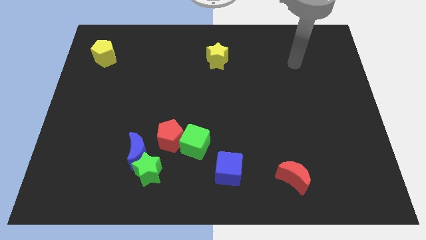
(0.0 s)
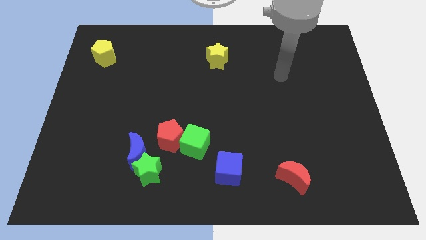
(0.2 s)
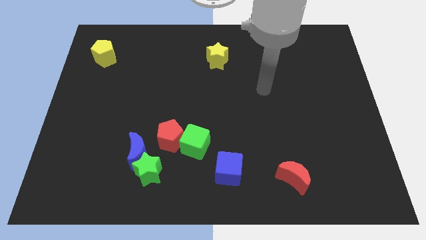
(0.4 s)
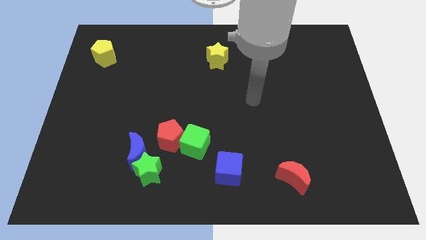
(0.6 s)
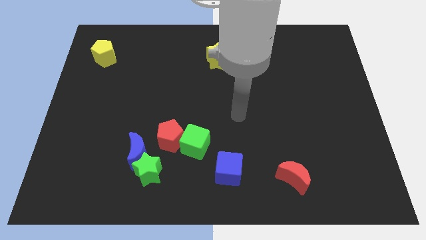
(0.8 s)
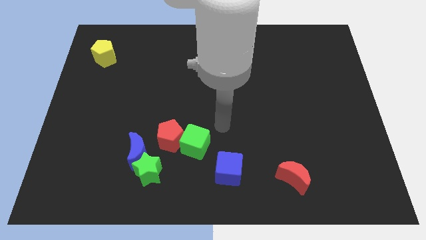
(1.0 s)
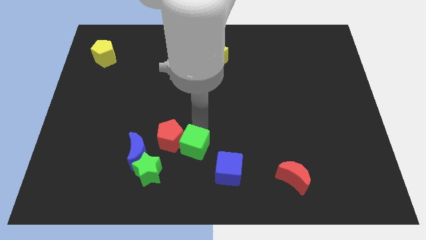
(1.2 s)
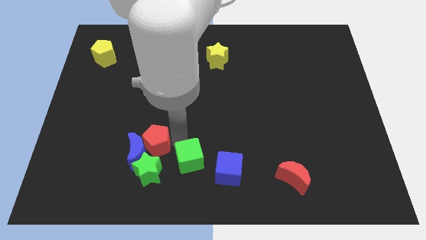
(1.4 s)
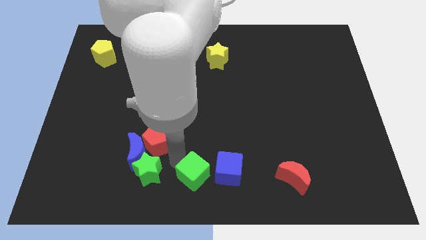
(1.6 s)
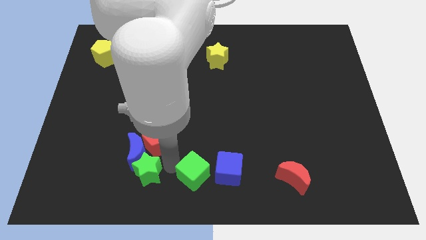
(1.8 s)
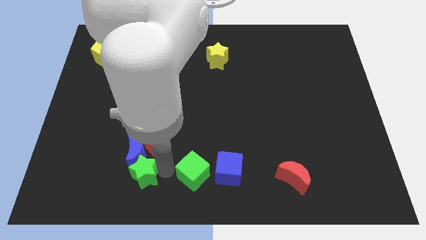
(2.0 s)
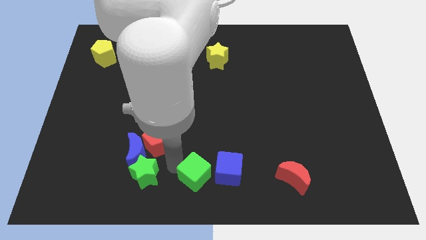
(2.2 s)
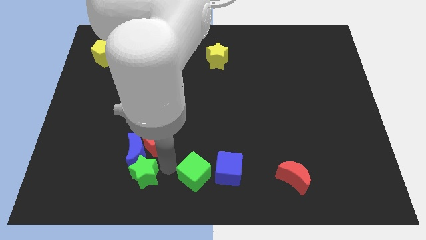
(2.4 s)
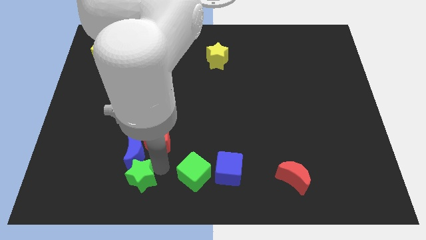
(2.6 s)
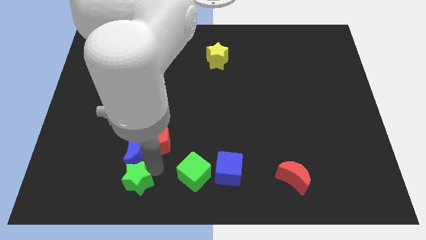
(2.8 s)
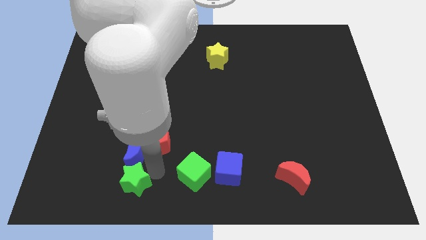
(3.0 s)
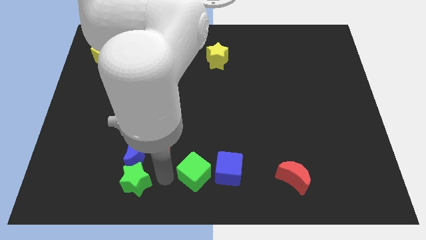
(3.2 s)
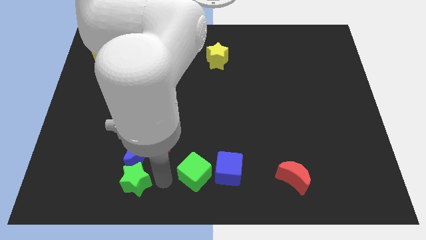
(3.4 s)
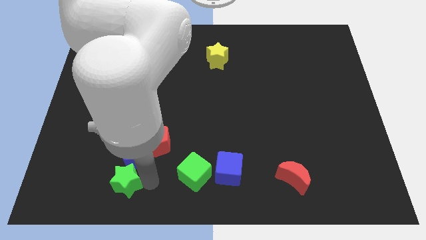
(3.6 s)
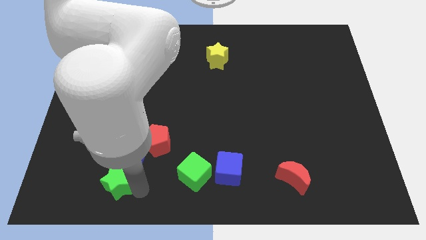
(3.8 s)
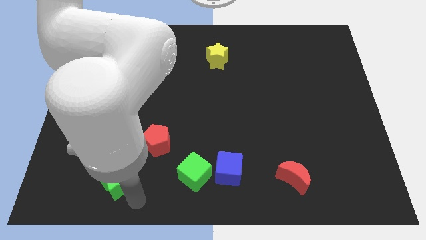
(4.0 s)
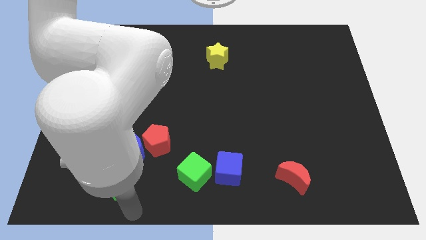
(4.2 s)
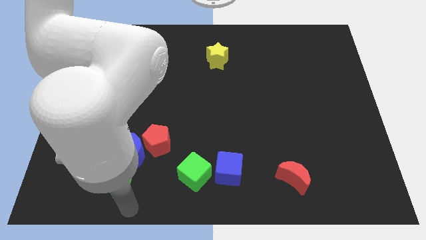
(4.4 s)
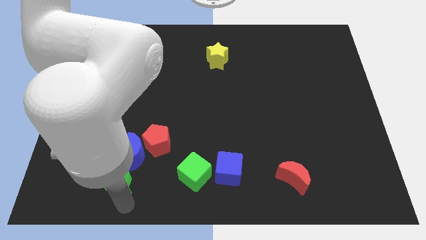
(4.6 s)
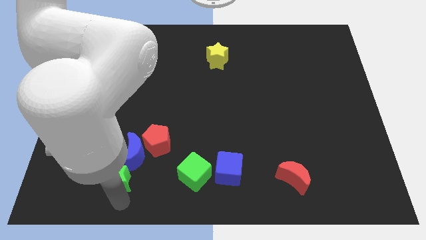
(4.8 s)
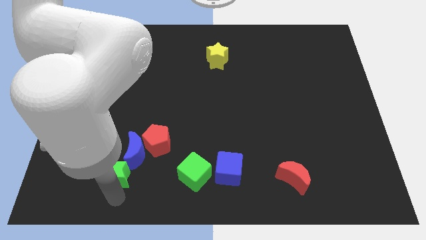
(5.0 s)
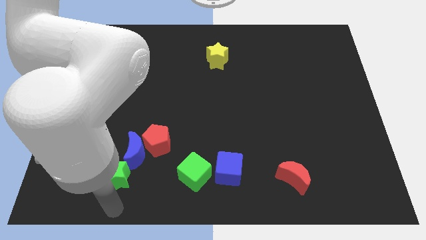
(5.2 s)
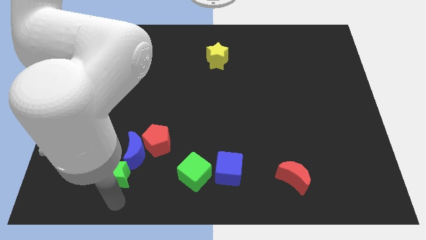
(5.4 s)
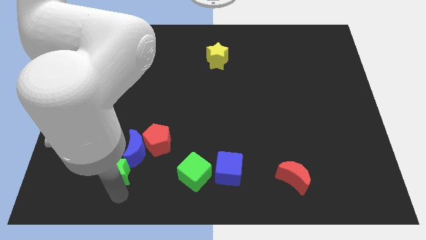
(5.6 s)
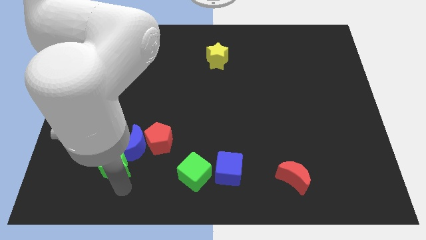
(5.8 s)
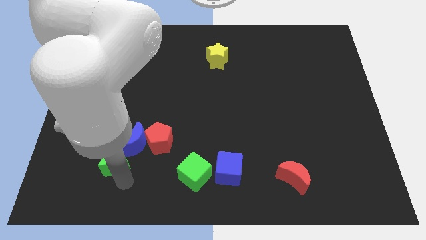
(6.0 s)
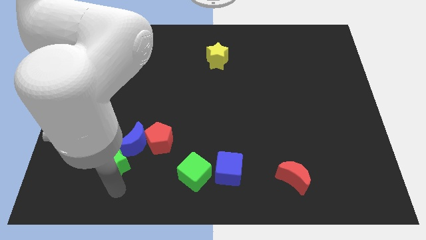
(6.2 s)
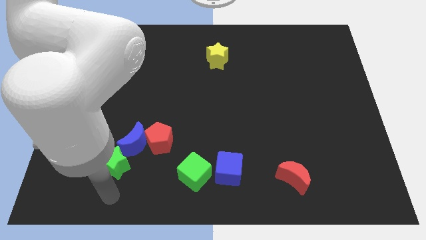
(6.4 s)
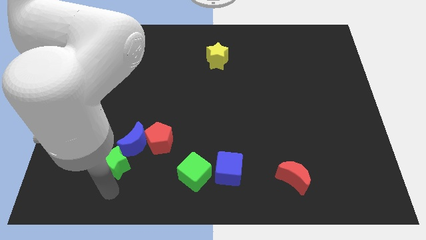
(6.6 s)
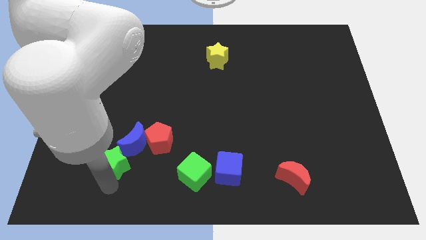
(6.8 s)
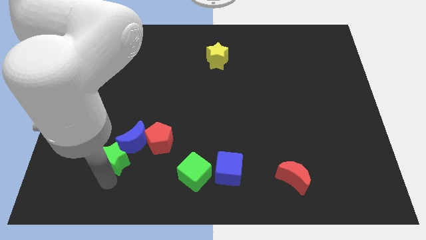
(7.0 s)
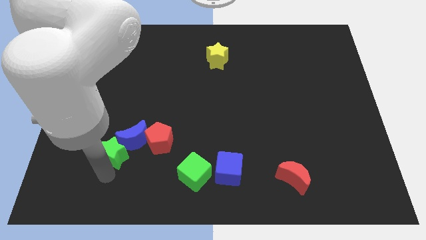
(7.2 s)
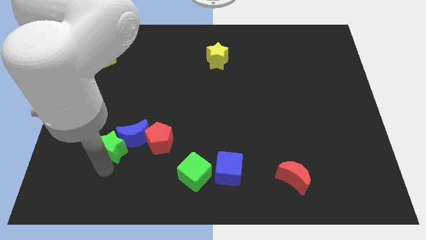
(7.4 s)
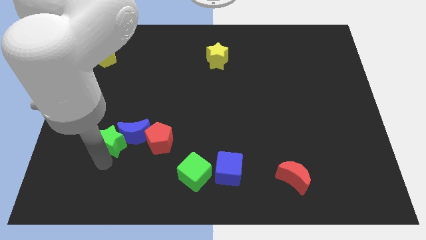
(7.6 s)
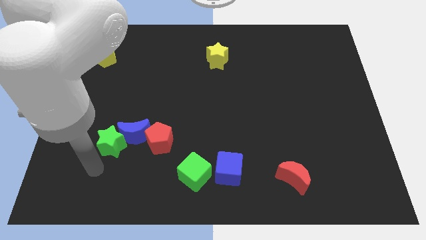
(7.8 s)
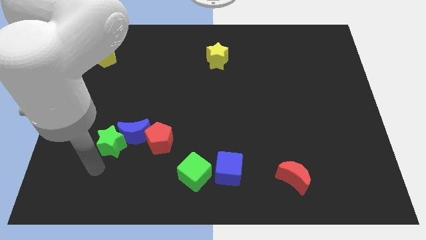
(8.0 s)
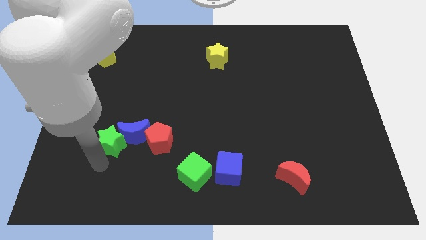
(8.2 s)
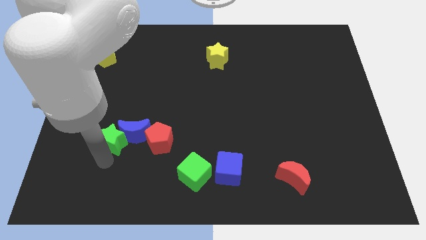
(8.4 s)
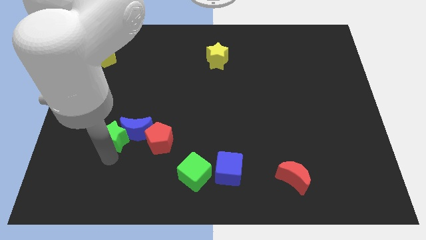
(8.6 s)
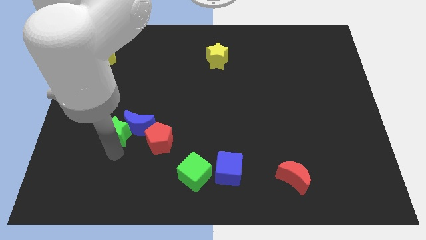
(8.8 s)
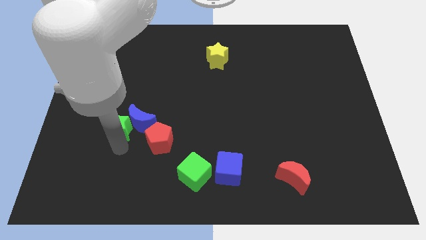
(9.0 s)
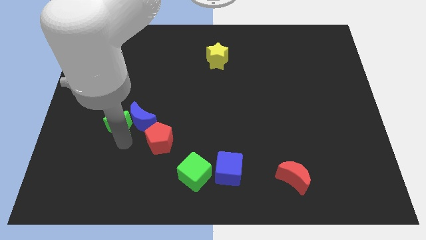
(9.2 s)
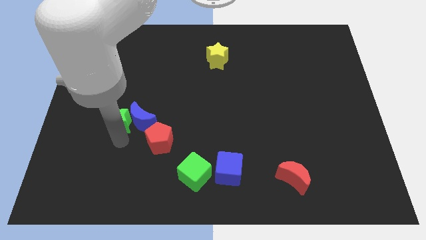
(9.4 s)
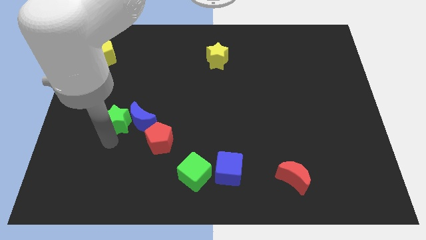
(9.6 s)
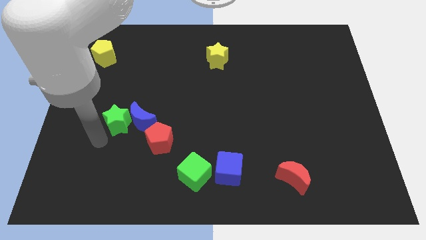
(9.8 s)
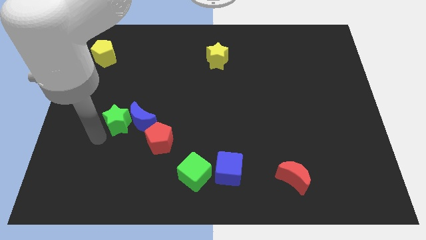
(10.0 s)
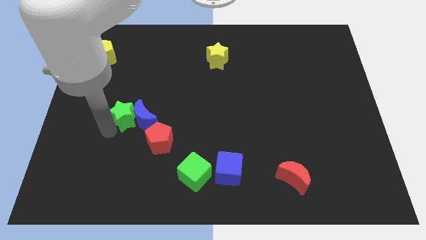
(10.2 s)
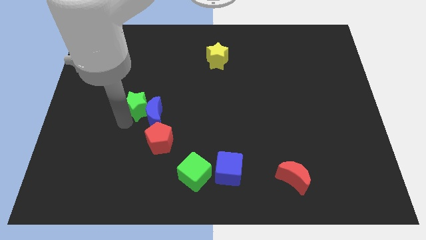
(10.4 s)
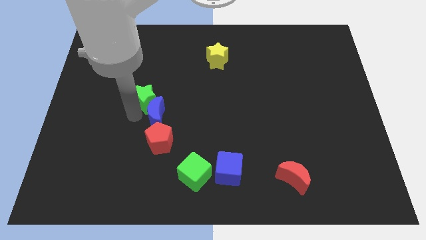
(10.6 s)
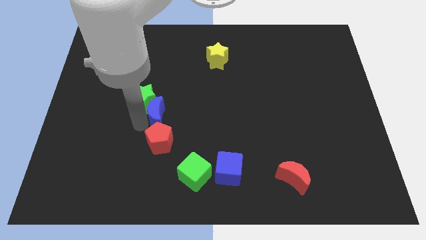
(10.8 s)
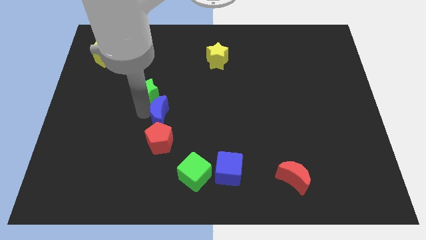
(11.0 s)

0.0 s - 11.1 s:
slide the green star upwards

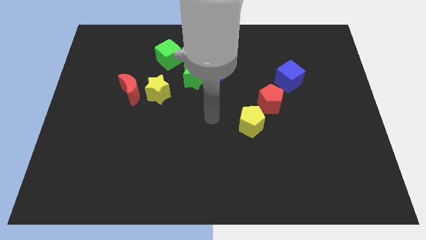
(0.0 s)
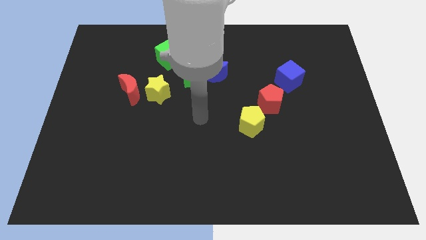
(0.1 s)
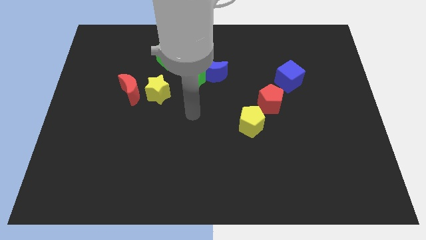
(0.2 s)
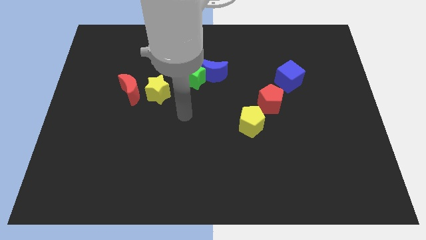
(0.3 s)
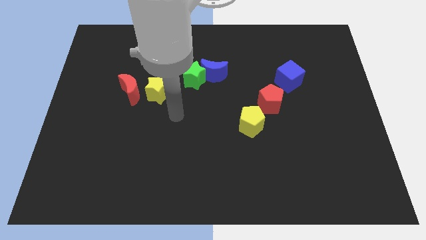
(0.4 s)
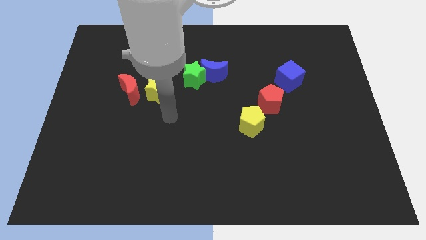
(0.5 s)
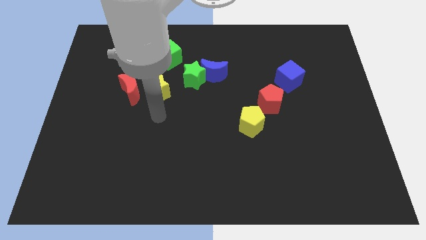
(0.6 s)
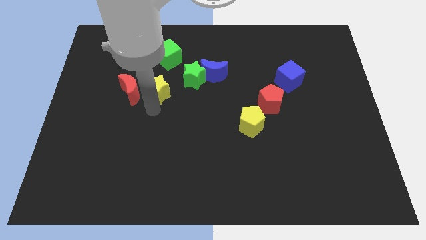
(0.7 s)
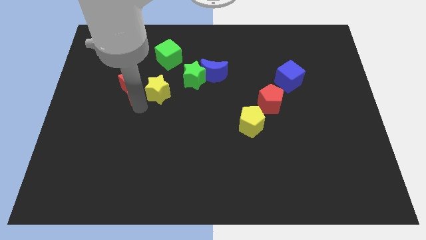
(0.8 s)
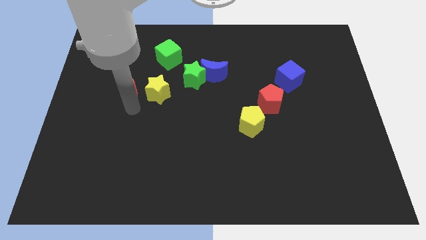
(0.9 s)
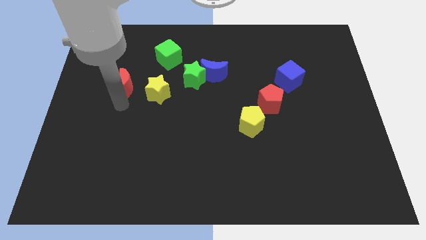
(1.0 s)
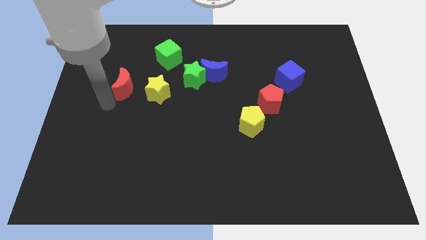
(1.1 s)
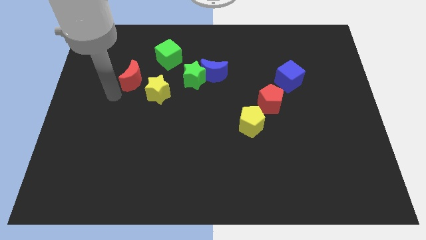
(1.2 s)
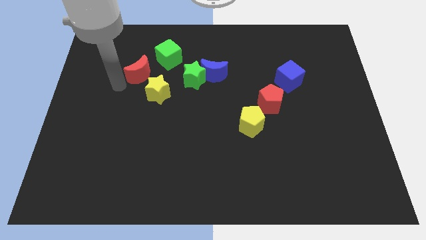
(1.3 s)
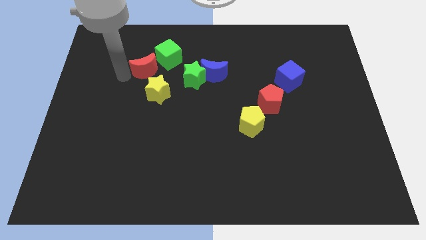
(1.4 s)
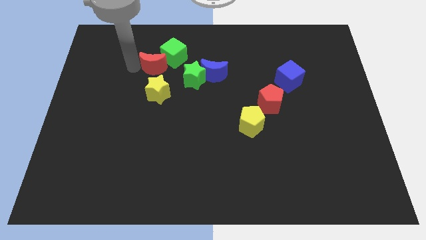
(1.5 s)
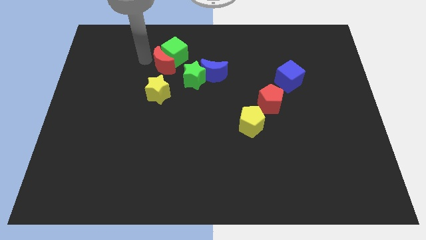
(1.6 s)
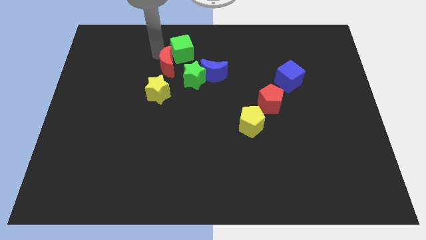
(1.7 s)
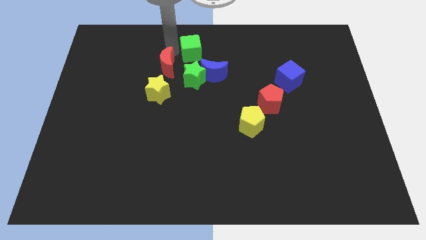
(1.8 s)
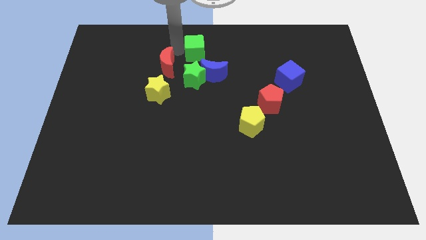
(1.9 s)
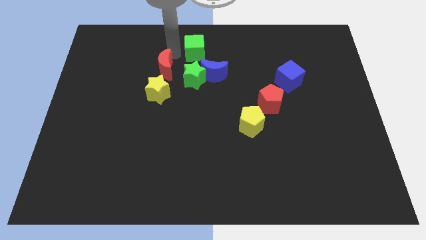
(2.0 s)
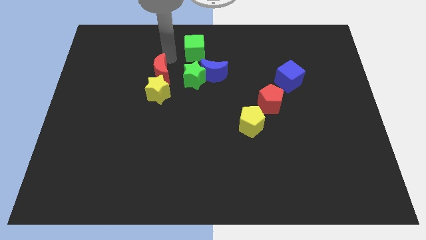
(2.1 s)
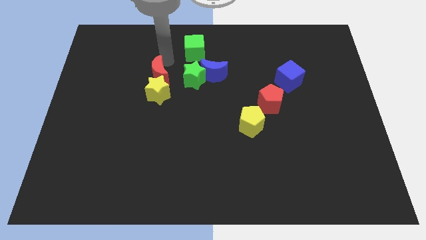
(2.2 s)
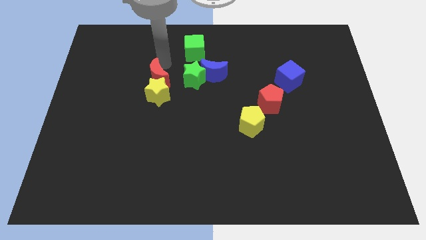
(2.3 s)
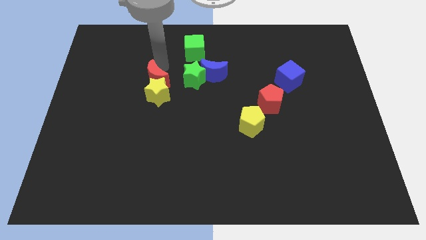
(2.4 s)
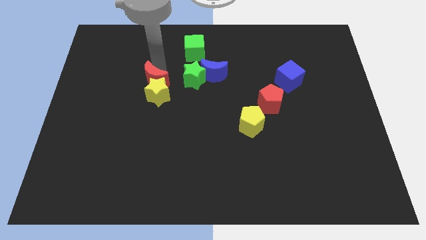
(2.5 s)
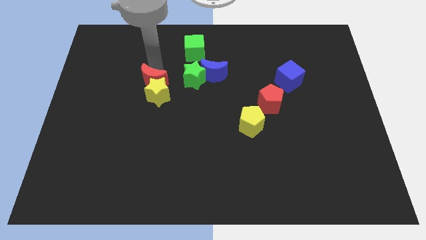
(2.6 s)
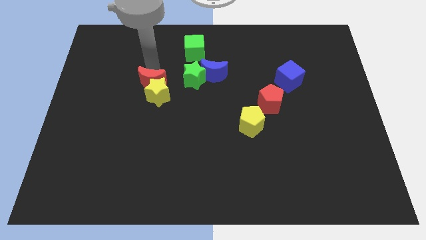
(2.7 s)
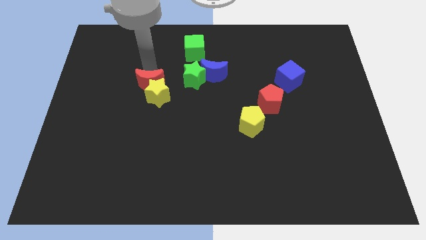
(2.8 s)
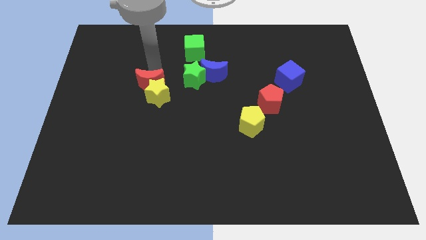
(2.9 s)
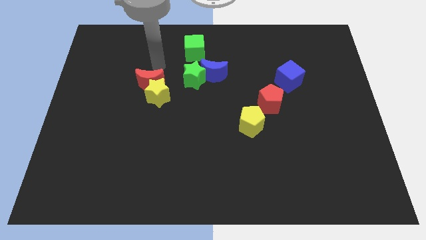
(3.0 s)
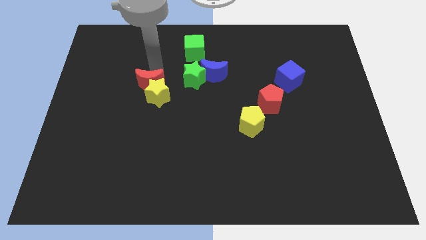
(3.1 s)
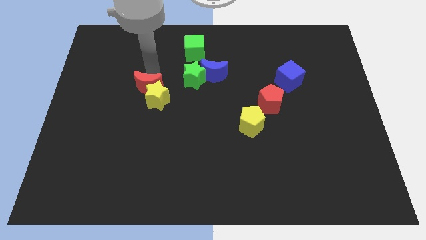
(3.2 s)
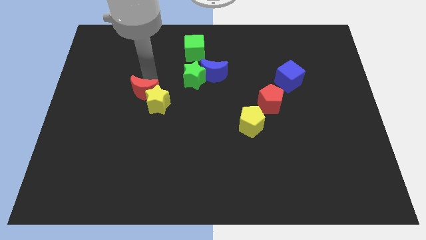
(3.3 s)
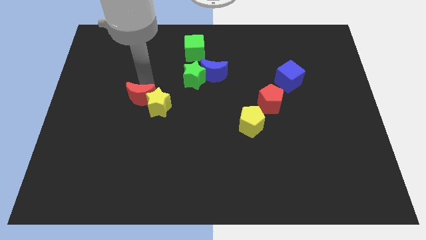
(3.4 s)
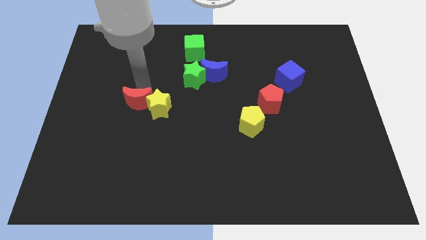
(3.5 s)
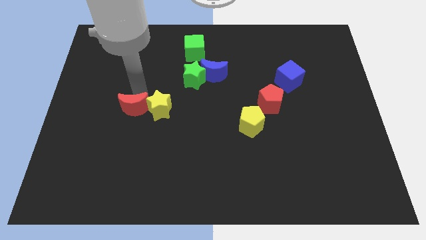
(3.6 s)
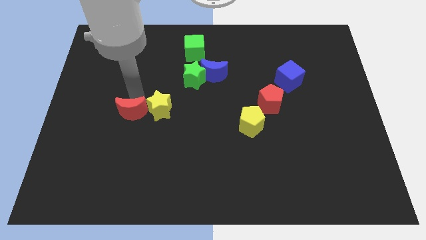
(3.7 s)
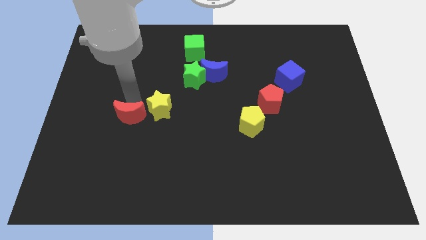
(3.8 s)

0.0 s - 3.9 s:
slightly move the red moon down
